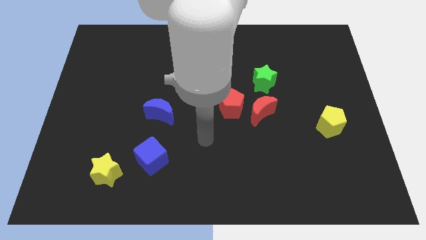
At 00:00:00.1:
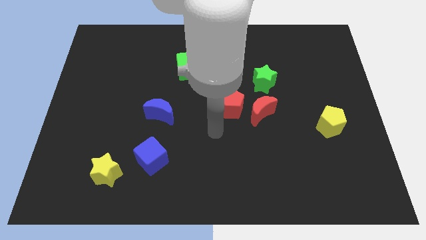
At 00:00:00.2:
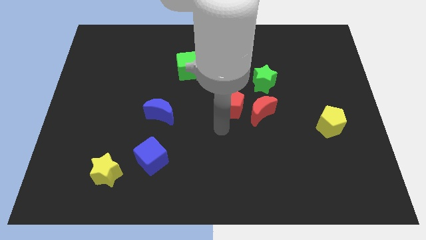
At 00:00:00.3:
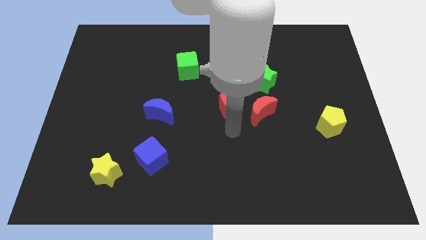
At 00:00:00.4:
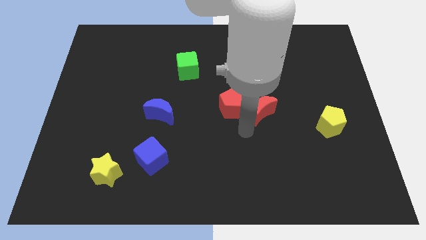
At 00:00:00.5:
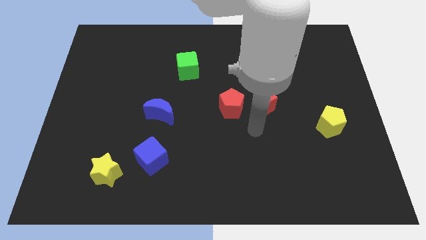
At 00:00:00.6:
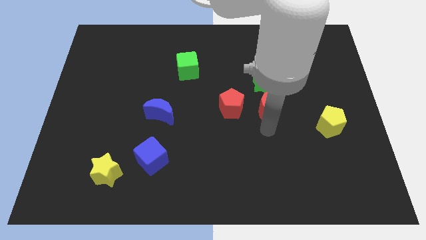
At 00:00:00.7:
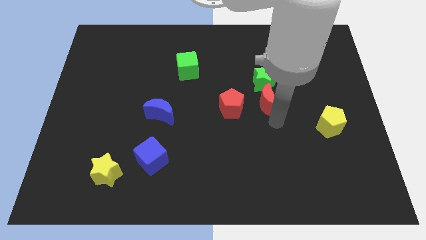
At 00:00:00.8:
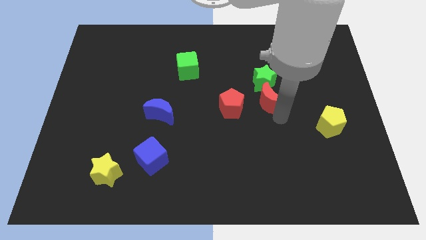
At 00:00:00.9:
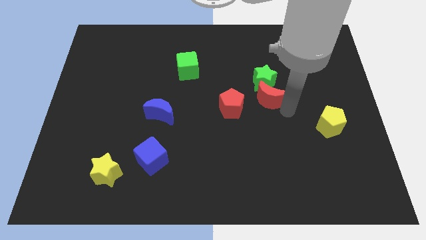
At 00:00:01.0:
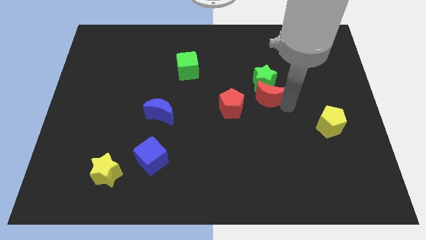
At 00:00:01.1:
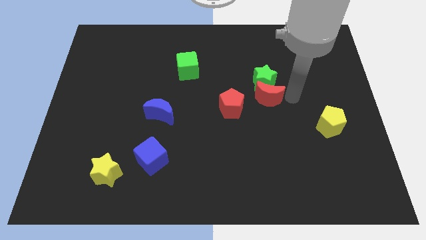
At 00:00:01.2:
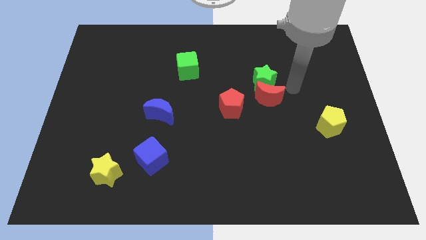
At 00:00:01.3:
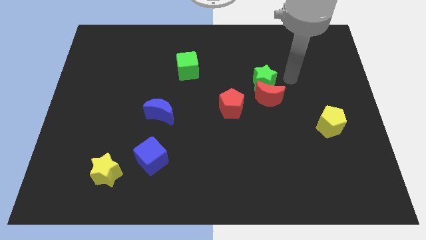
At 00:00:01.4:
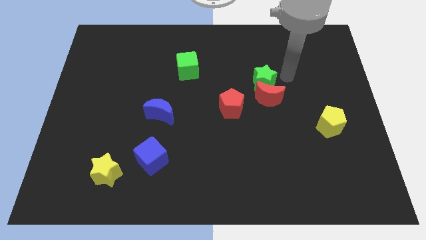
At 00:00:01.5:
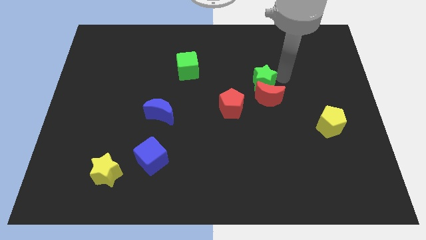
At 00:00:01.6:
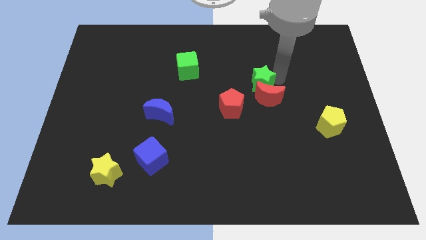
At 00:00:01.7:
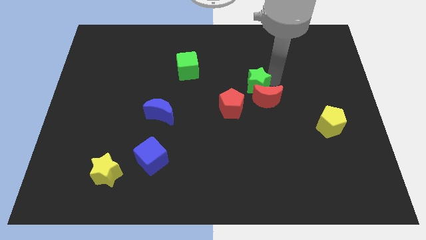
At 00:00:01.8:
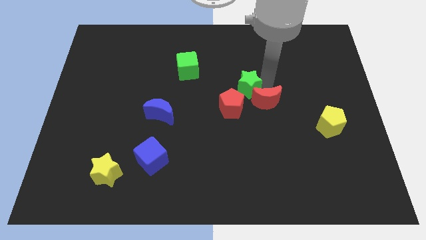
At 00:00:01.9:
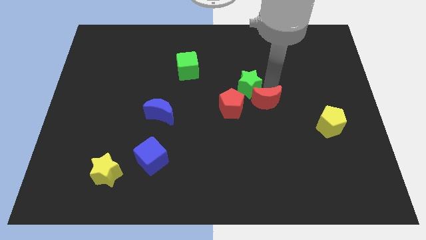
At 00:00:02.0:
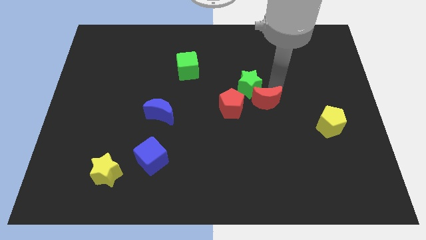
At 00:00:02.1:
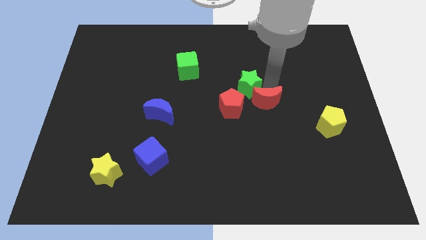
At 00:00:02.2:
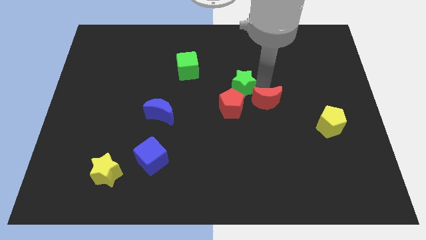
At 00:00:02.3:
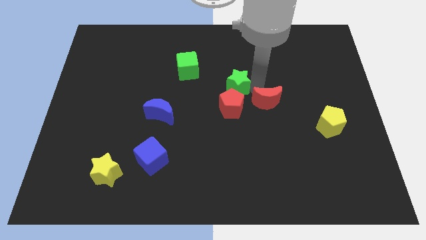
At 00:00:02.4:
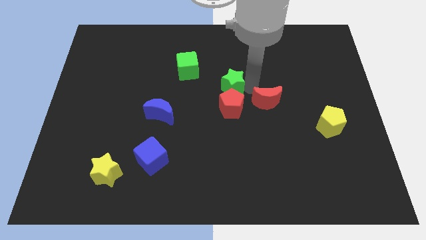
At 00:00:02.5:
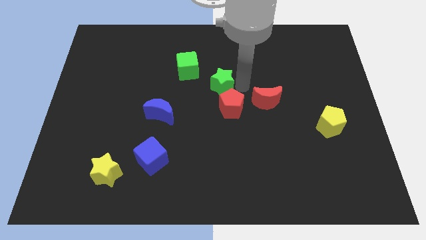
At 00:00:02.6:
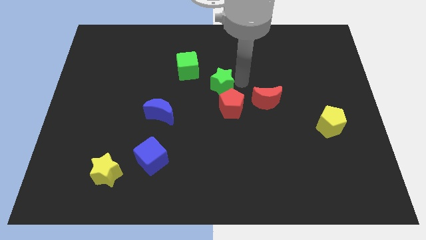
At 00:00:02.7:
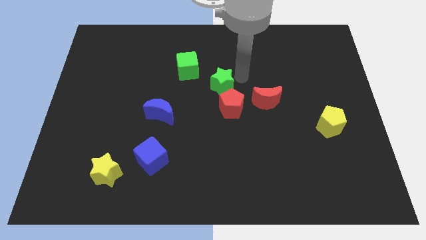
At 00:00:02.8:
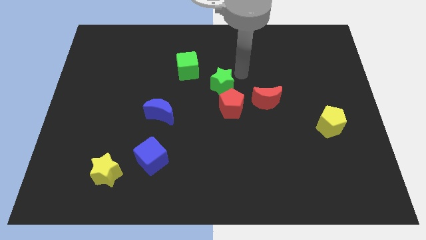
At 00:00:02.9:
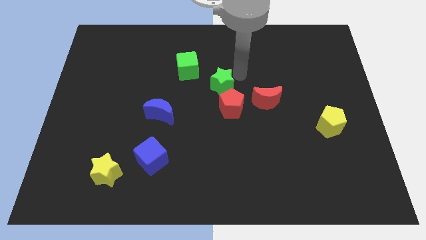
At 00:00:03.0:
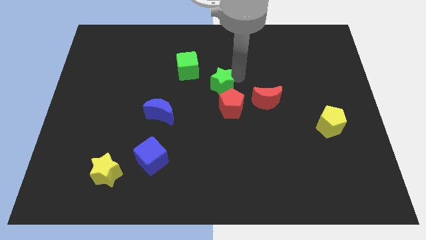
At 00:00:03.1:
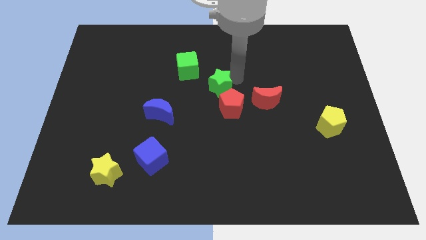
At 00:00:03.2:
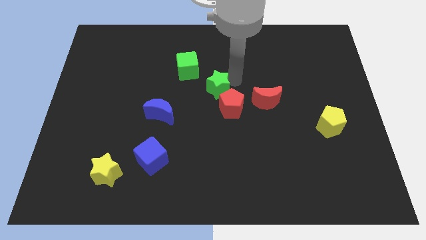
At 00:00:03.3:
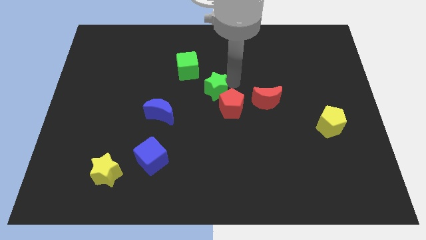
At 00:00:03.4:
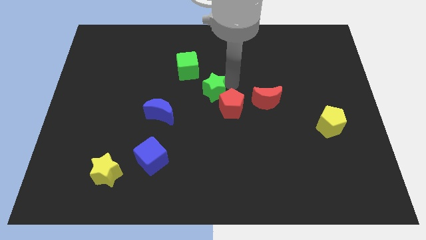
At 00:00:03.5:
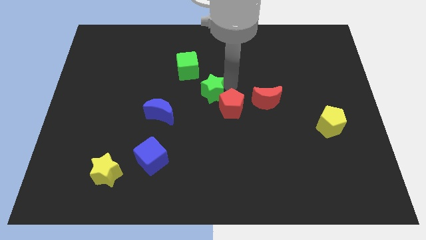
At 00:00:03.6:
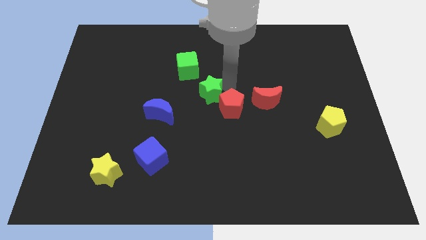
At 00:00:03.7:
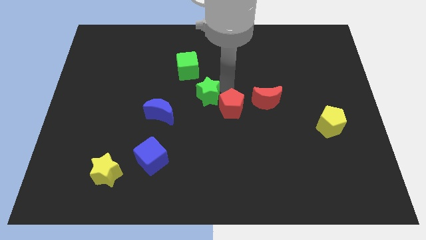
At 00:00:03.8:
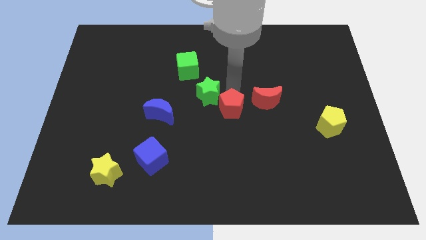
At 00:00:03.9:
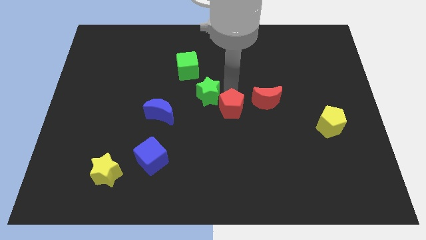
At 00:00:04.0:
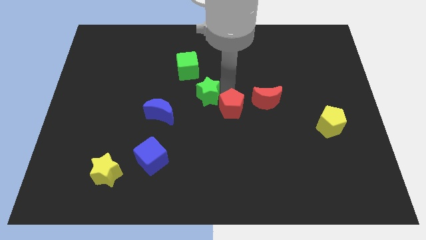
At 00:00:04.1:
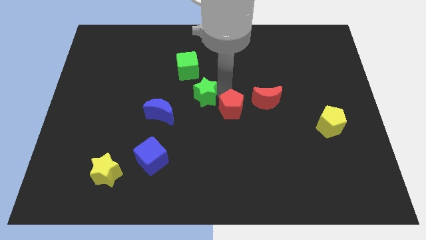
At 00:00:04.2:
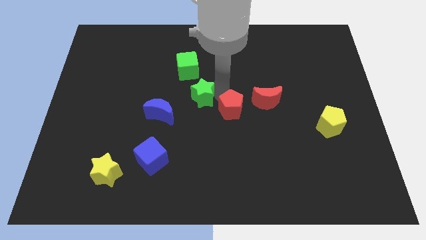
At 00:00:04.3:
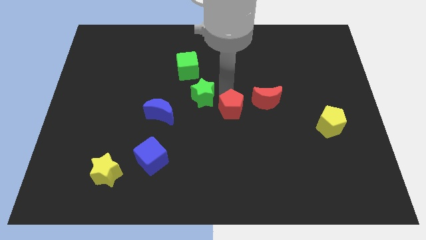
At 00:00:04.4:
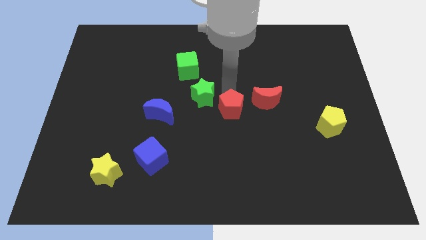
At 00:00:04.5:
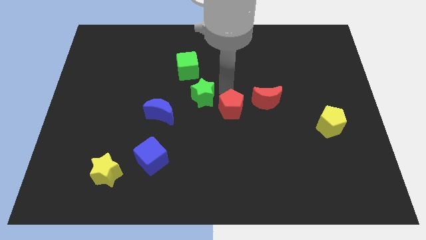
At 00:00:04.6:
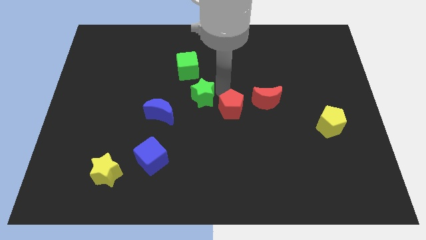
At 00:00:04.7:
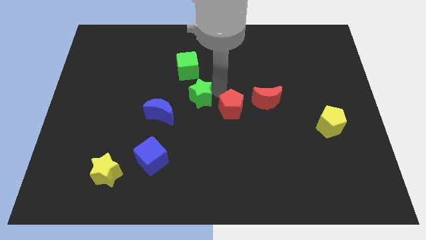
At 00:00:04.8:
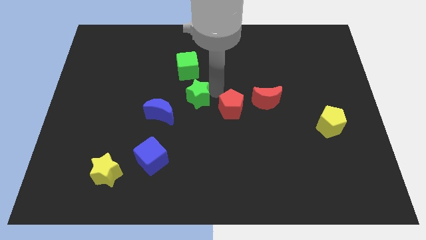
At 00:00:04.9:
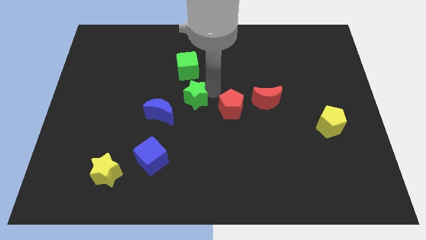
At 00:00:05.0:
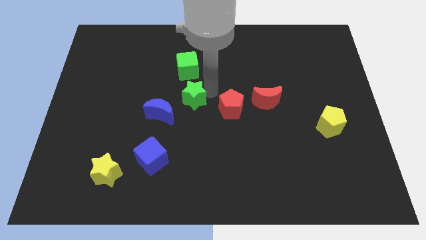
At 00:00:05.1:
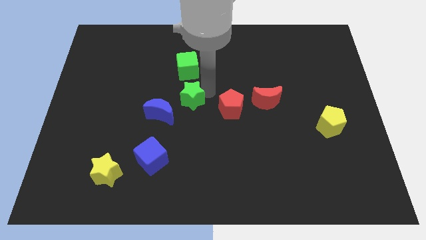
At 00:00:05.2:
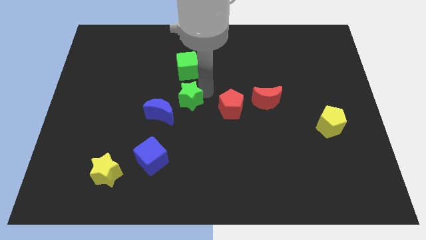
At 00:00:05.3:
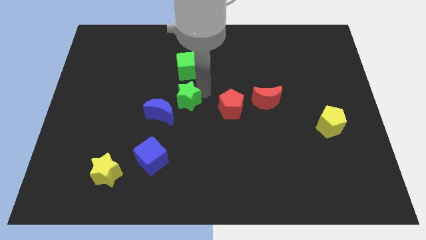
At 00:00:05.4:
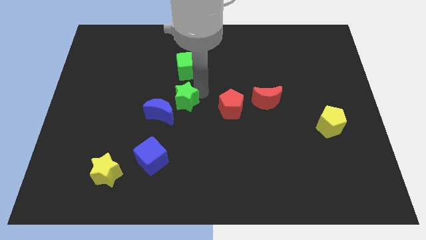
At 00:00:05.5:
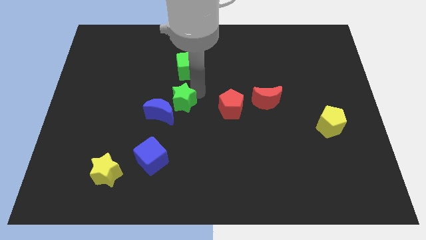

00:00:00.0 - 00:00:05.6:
put the green star next to the blue moon

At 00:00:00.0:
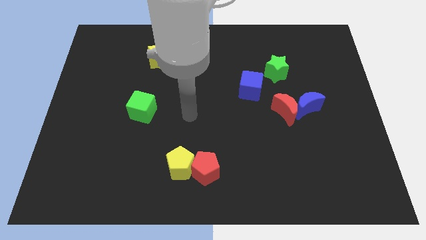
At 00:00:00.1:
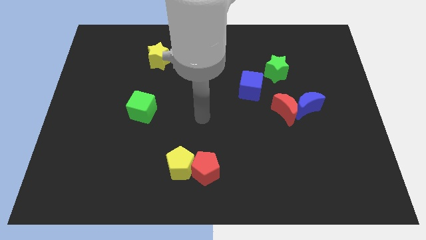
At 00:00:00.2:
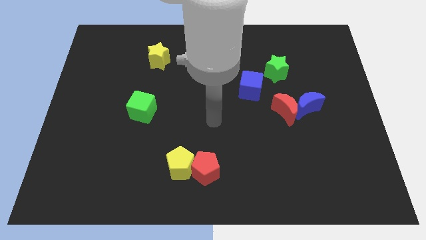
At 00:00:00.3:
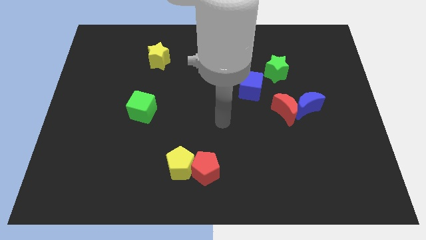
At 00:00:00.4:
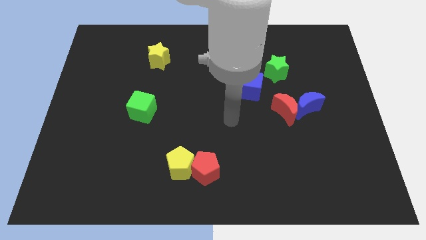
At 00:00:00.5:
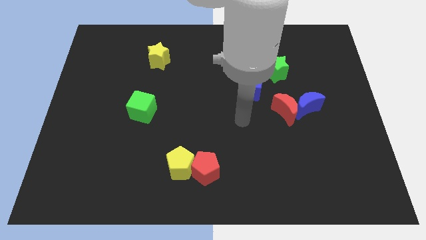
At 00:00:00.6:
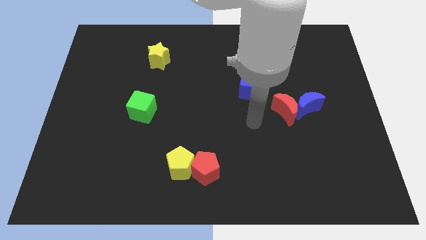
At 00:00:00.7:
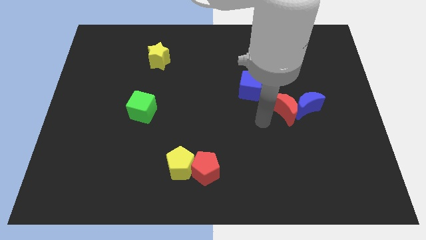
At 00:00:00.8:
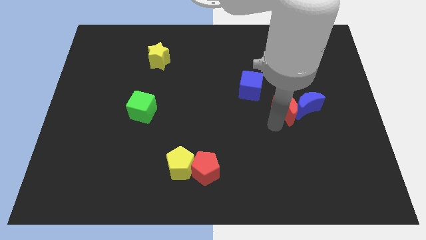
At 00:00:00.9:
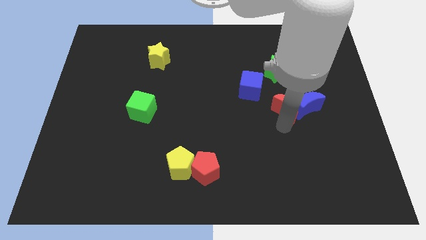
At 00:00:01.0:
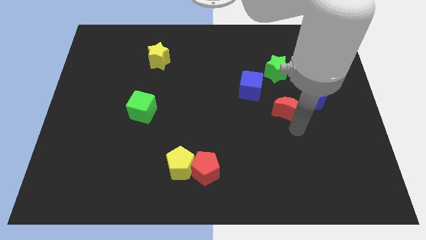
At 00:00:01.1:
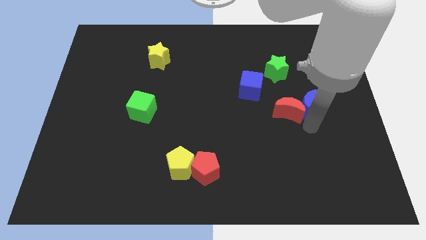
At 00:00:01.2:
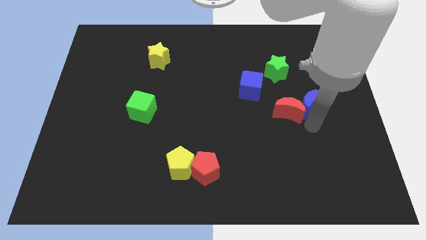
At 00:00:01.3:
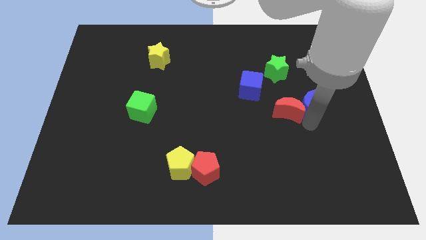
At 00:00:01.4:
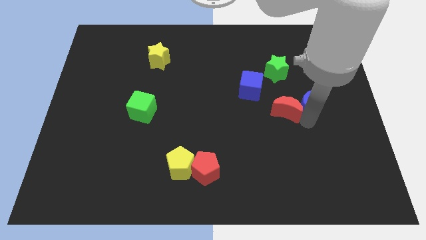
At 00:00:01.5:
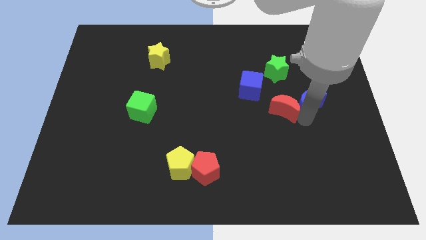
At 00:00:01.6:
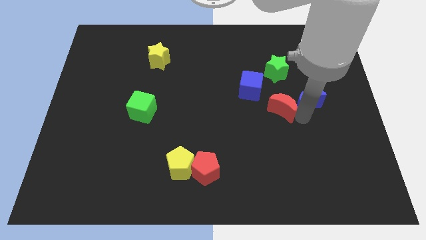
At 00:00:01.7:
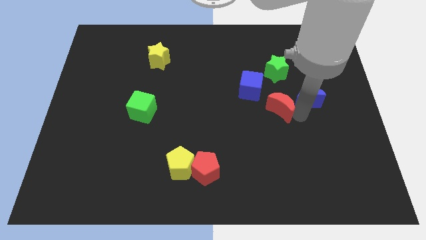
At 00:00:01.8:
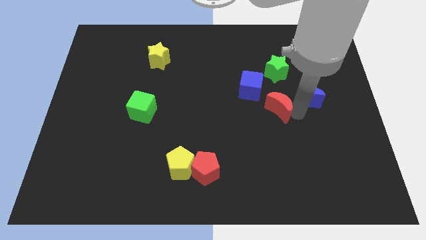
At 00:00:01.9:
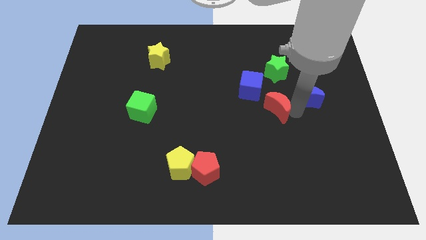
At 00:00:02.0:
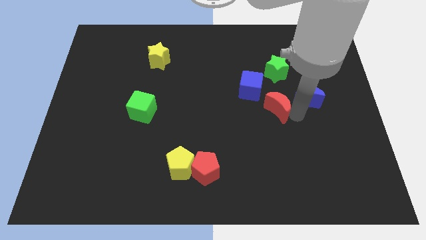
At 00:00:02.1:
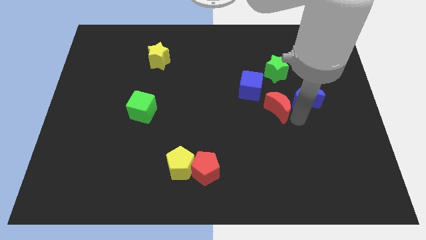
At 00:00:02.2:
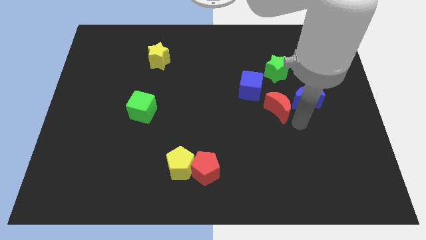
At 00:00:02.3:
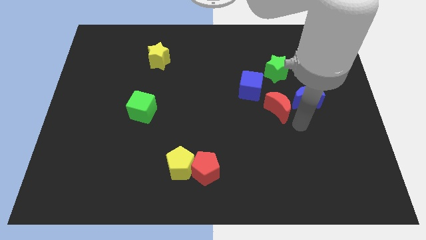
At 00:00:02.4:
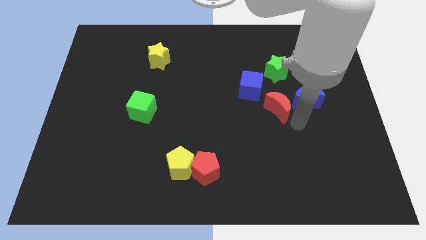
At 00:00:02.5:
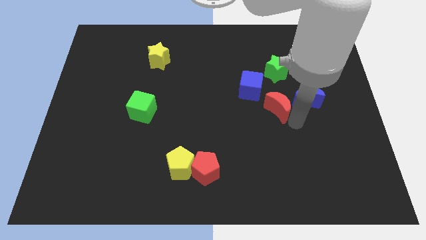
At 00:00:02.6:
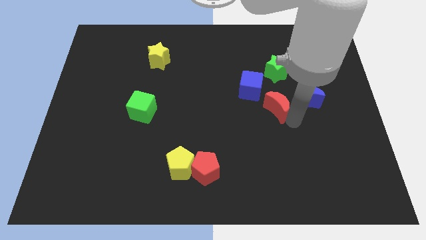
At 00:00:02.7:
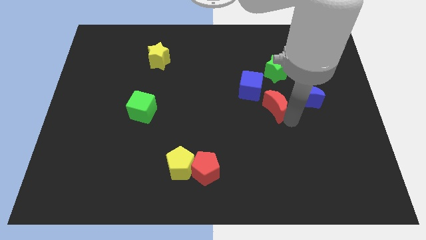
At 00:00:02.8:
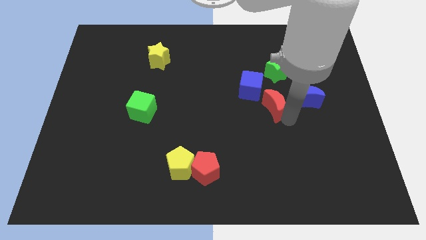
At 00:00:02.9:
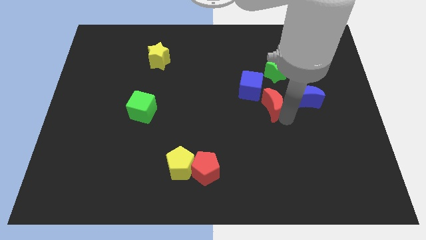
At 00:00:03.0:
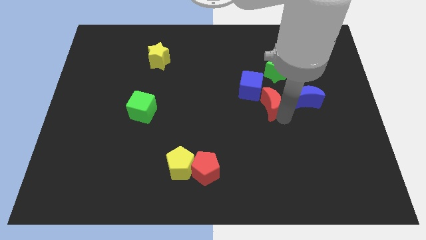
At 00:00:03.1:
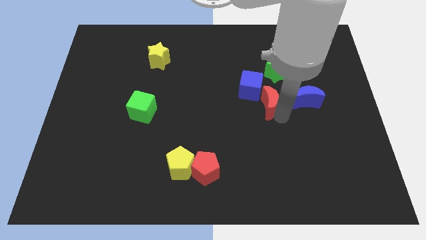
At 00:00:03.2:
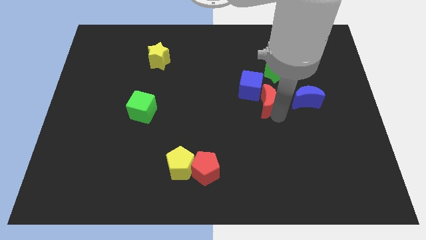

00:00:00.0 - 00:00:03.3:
push the red moon next to the blue cube
